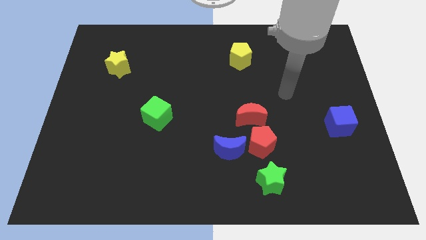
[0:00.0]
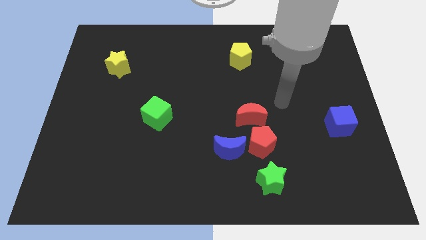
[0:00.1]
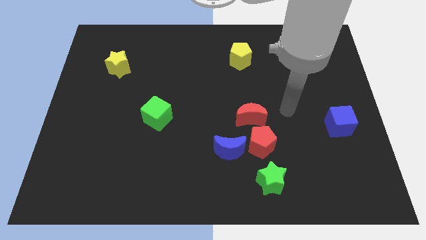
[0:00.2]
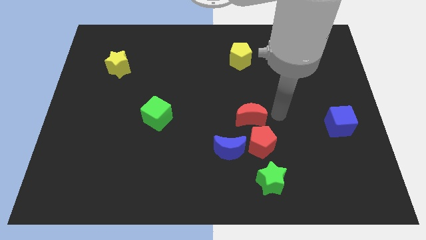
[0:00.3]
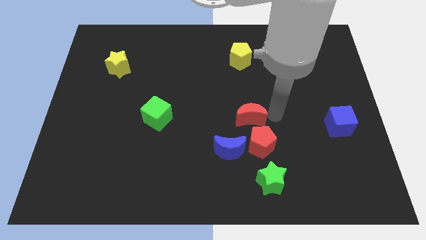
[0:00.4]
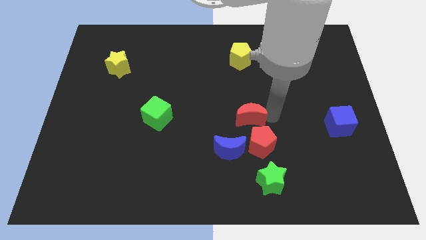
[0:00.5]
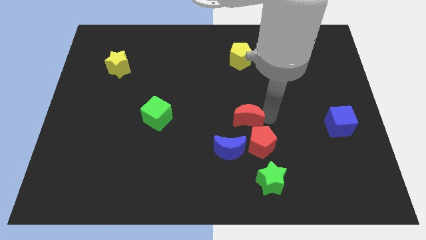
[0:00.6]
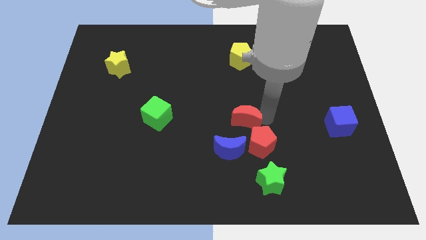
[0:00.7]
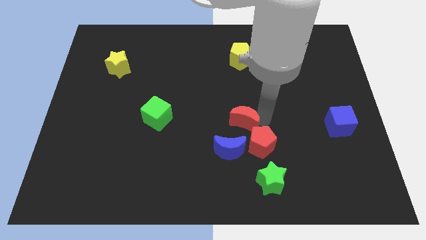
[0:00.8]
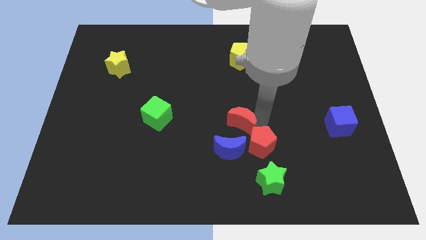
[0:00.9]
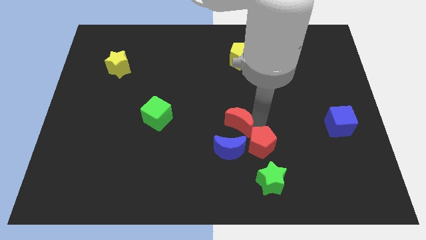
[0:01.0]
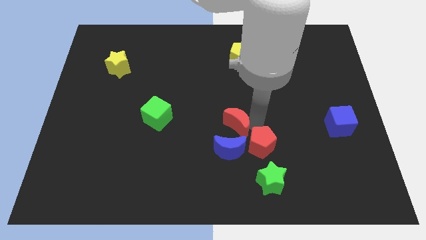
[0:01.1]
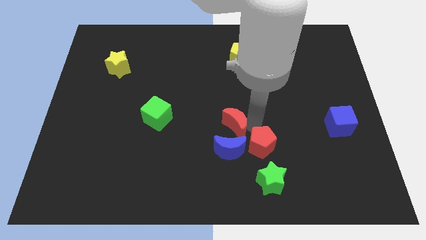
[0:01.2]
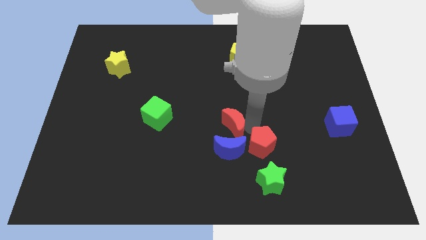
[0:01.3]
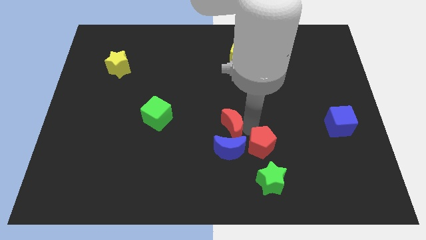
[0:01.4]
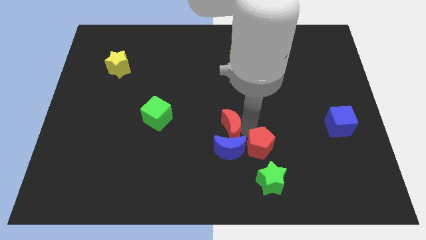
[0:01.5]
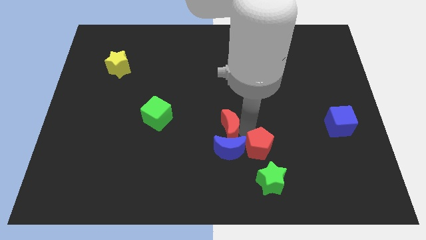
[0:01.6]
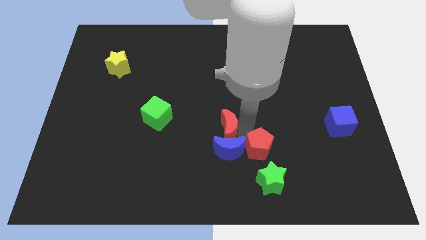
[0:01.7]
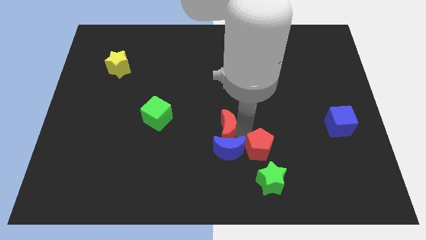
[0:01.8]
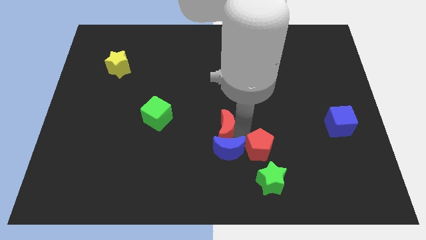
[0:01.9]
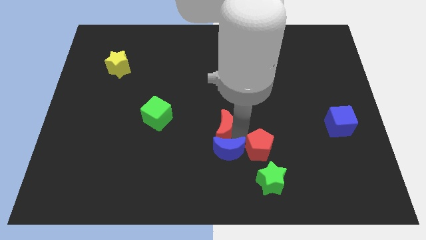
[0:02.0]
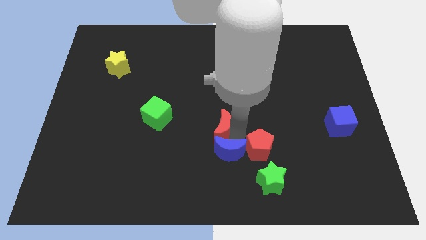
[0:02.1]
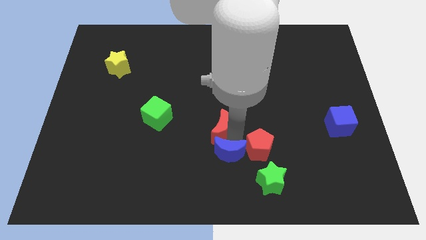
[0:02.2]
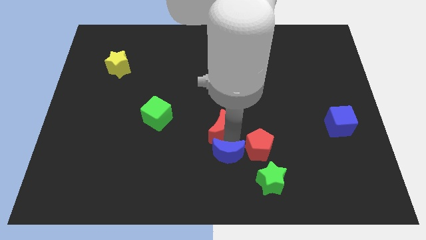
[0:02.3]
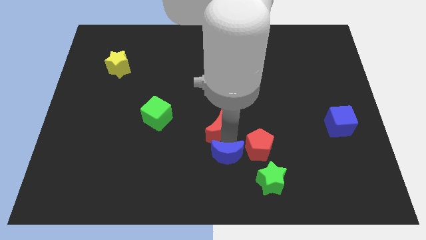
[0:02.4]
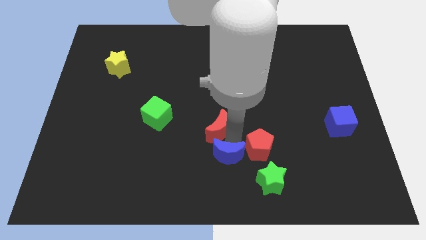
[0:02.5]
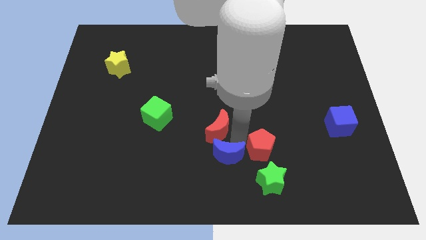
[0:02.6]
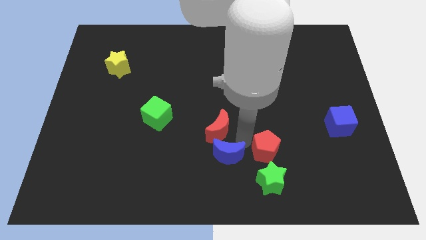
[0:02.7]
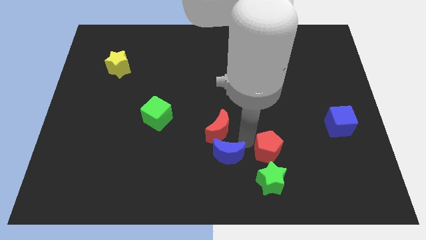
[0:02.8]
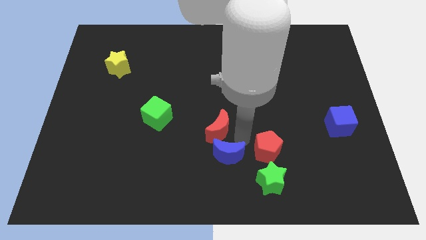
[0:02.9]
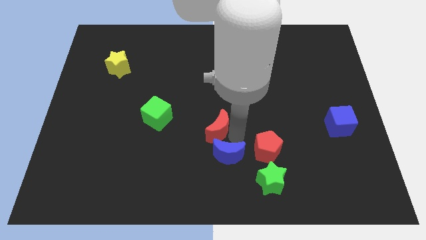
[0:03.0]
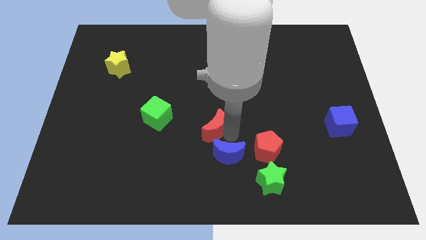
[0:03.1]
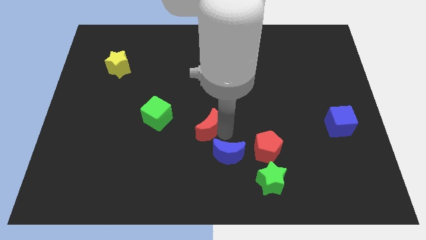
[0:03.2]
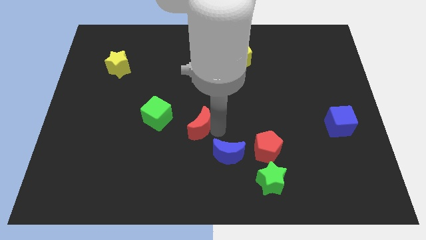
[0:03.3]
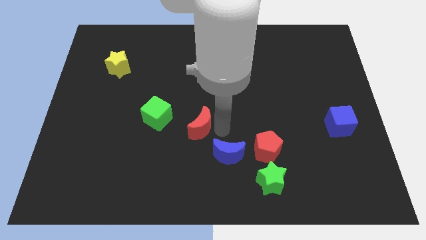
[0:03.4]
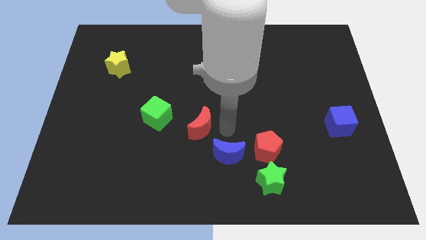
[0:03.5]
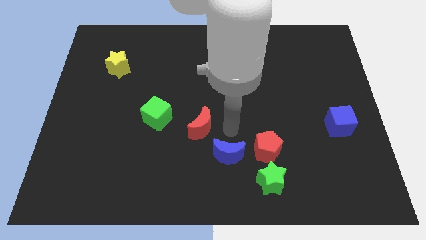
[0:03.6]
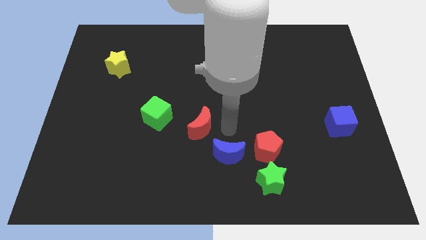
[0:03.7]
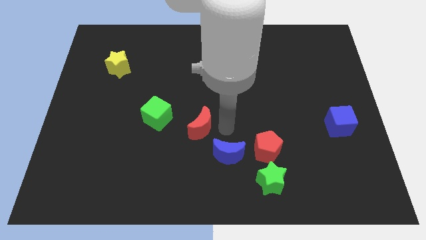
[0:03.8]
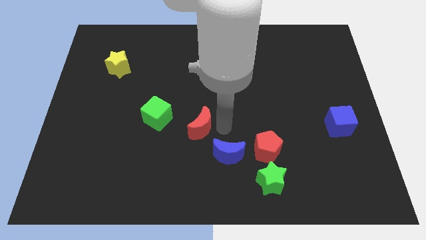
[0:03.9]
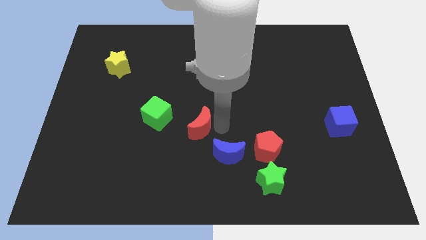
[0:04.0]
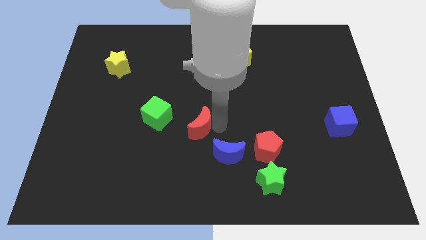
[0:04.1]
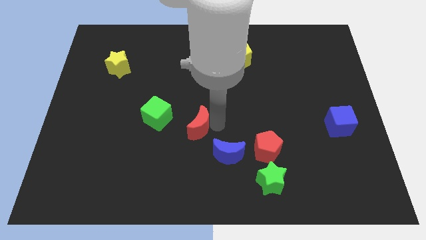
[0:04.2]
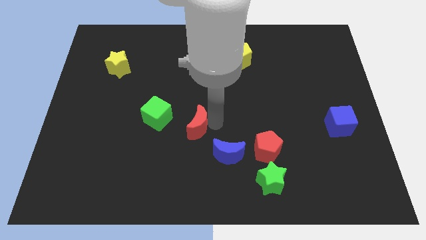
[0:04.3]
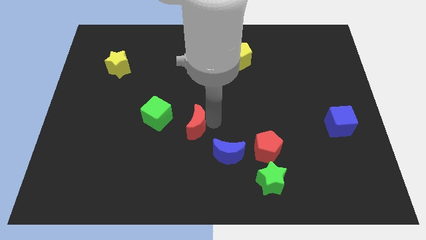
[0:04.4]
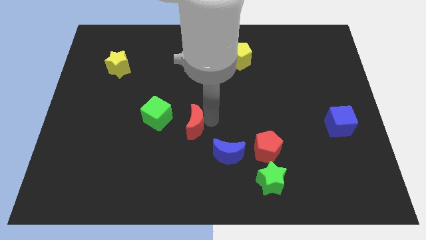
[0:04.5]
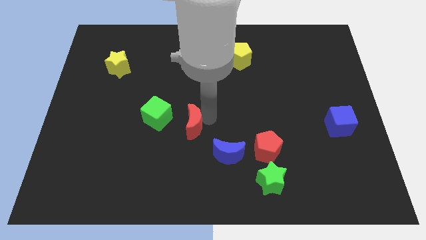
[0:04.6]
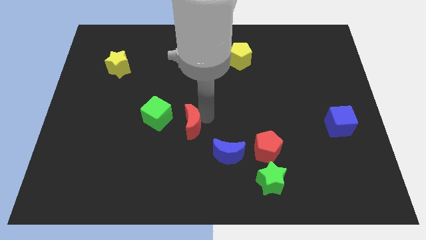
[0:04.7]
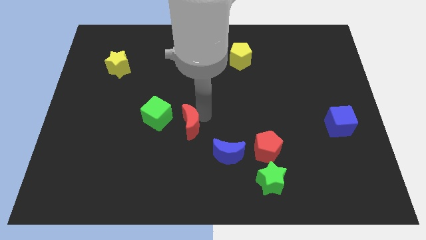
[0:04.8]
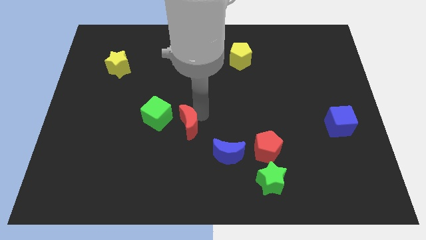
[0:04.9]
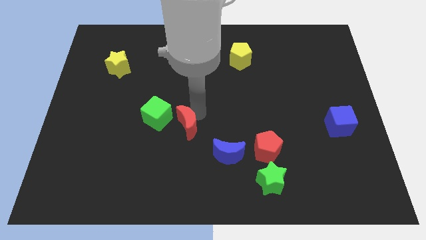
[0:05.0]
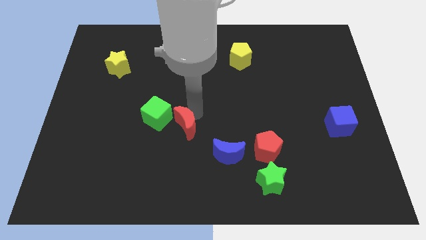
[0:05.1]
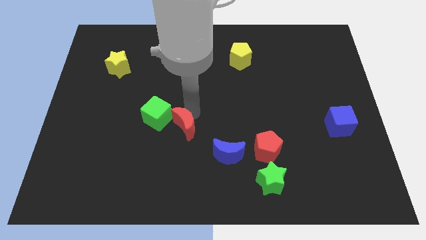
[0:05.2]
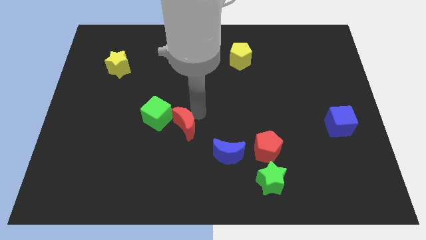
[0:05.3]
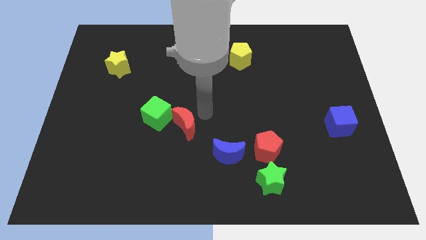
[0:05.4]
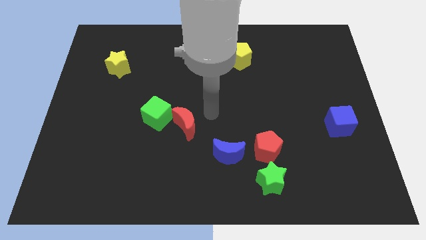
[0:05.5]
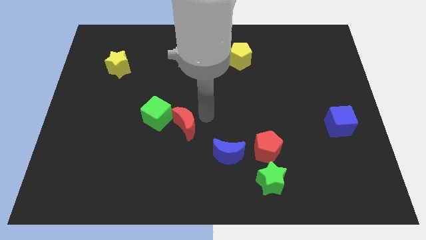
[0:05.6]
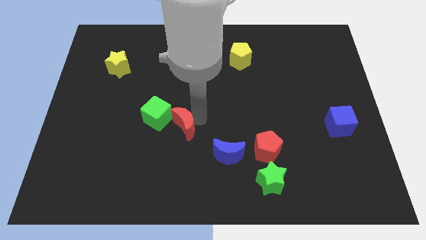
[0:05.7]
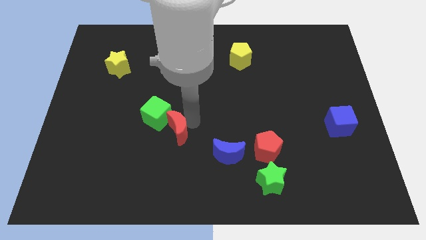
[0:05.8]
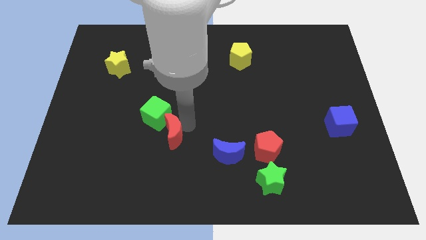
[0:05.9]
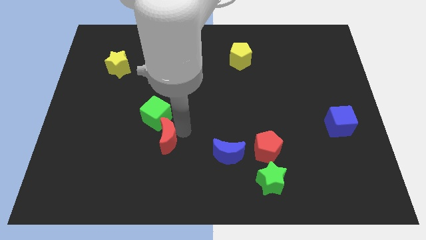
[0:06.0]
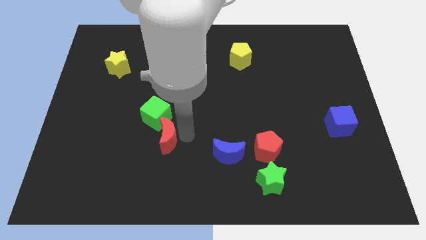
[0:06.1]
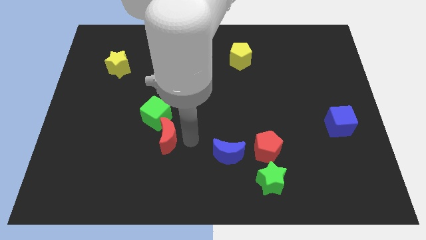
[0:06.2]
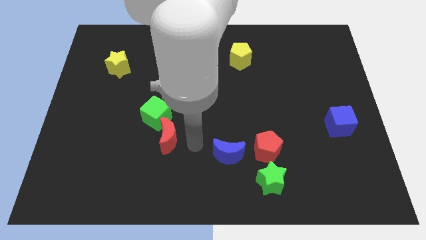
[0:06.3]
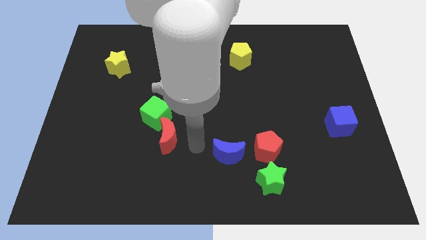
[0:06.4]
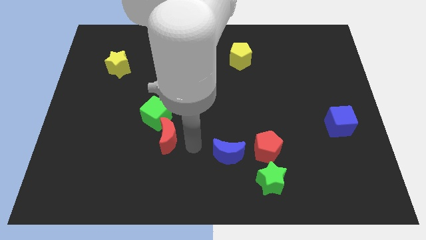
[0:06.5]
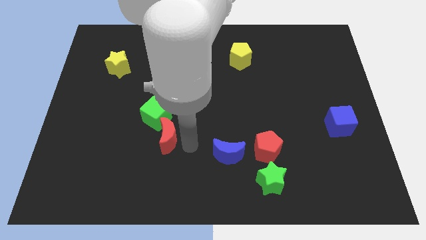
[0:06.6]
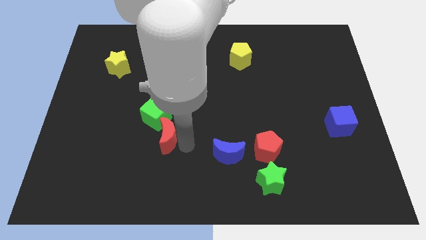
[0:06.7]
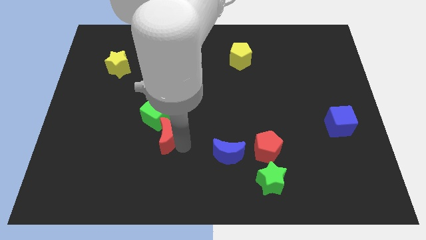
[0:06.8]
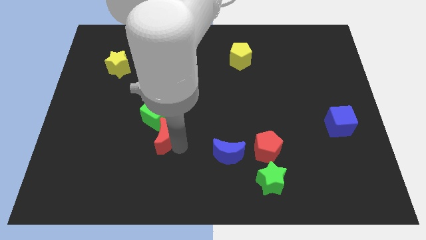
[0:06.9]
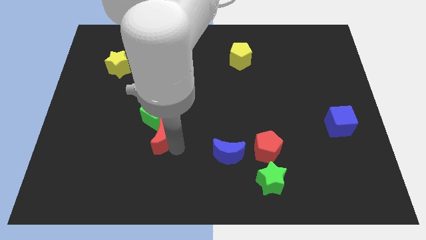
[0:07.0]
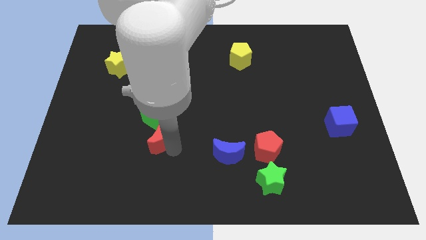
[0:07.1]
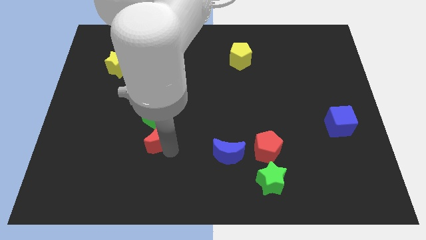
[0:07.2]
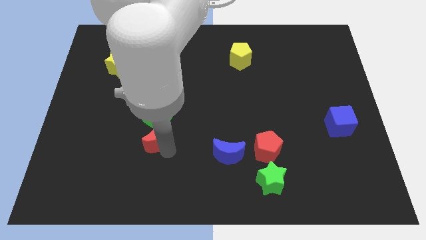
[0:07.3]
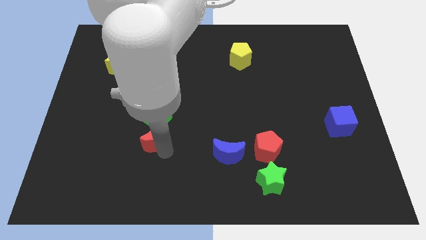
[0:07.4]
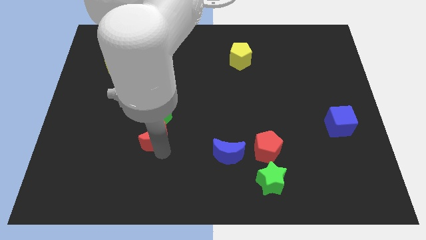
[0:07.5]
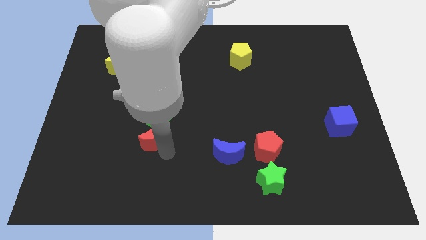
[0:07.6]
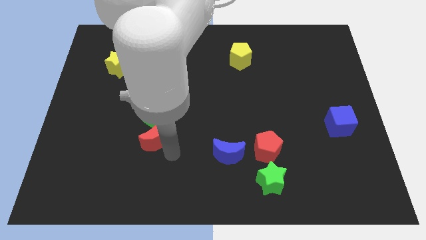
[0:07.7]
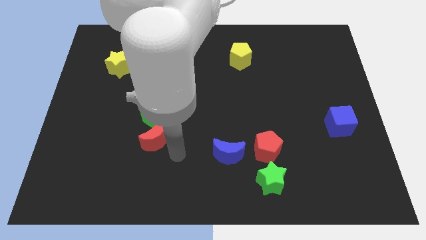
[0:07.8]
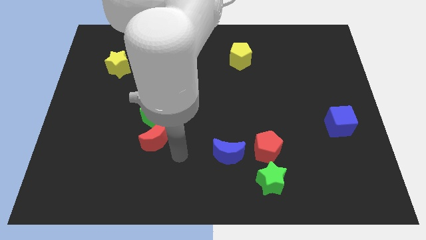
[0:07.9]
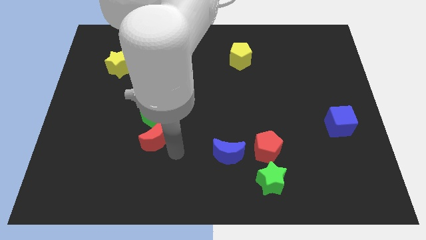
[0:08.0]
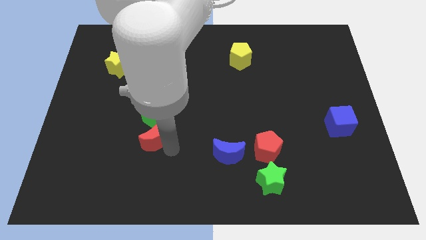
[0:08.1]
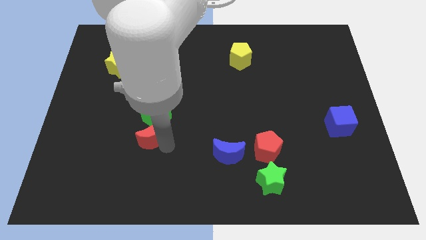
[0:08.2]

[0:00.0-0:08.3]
push the red moon to the left
